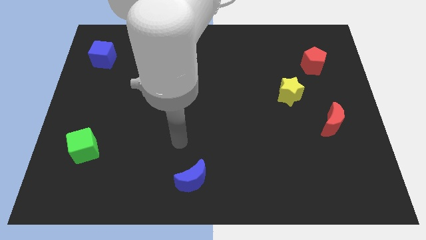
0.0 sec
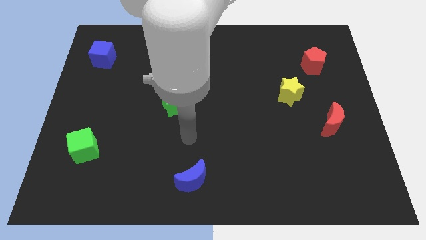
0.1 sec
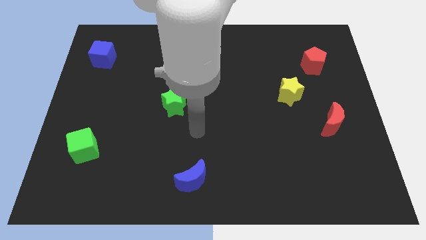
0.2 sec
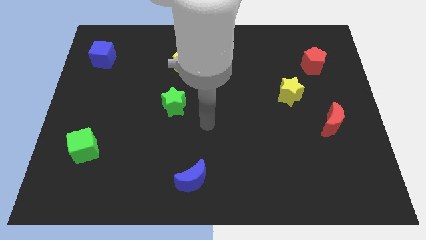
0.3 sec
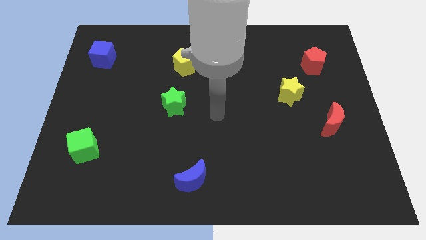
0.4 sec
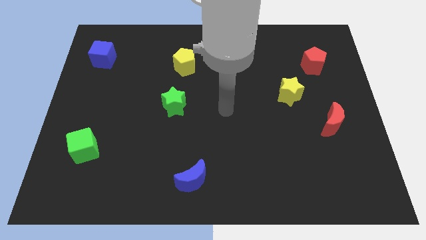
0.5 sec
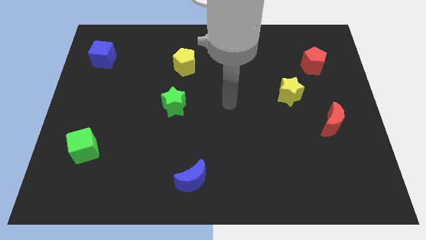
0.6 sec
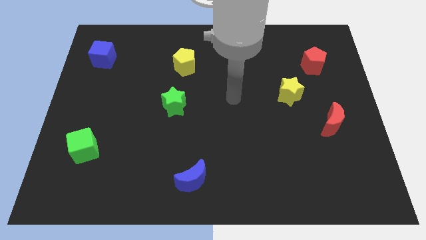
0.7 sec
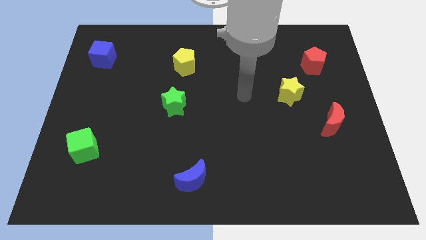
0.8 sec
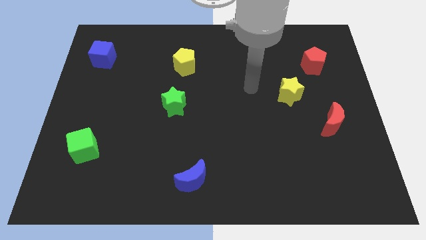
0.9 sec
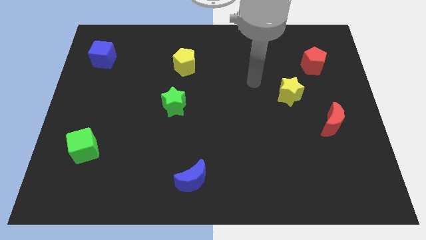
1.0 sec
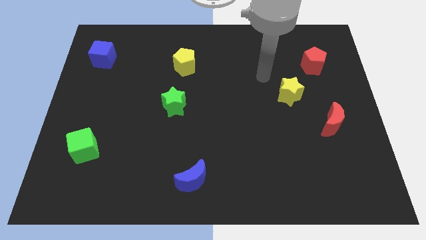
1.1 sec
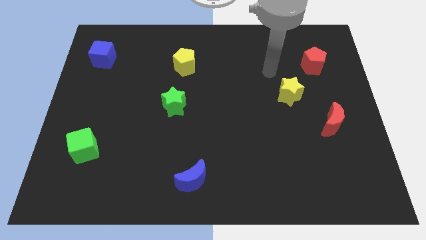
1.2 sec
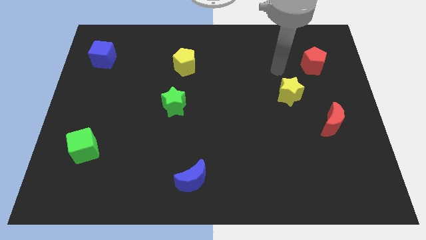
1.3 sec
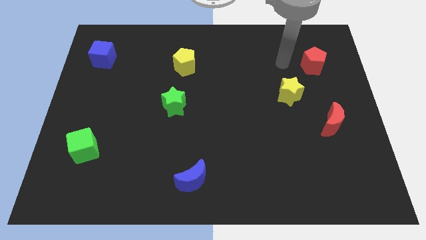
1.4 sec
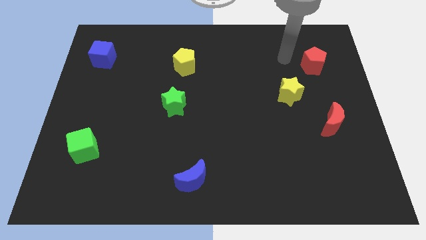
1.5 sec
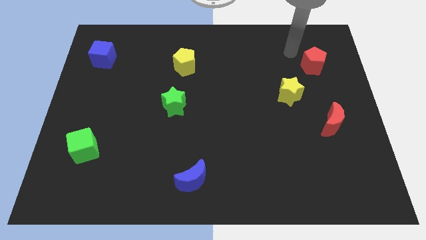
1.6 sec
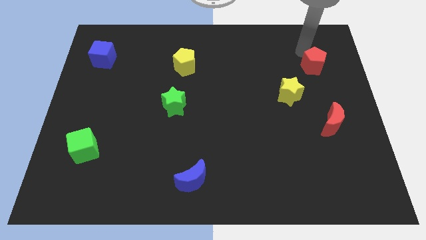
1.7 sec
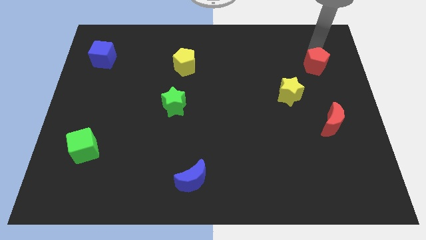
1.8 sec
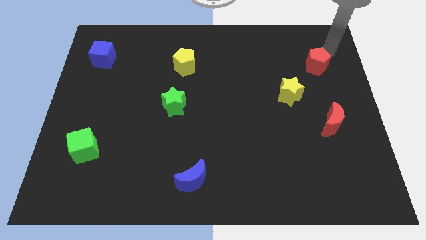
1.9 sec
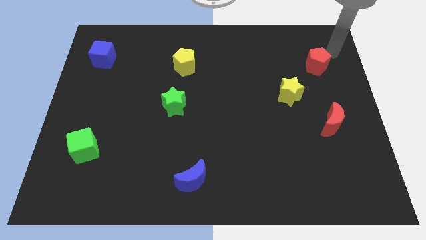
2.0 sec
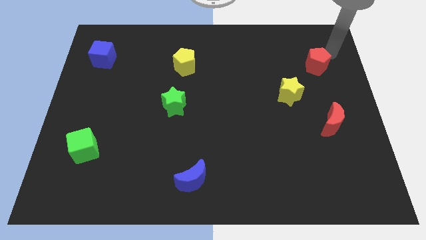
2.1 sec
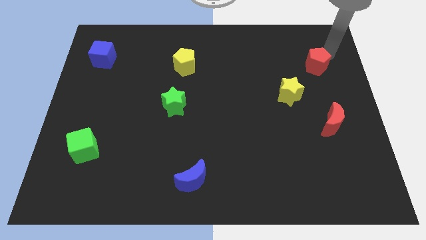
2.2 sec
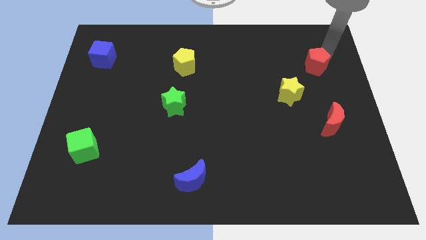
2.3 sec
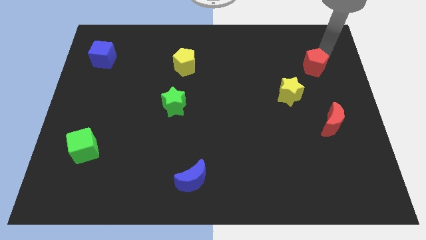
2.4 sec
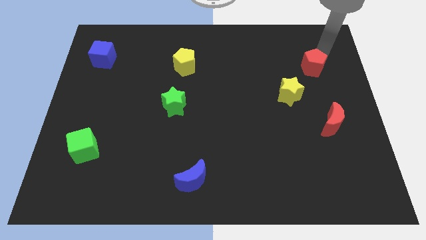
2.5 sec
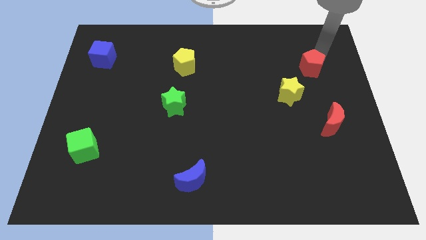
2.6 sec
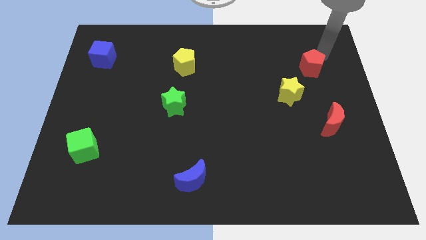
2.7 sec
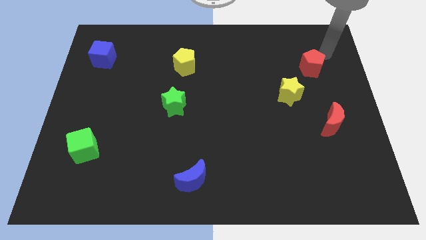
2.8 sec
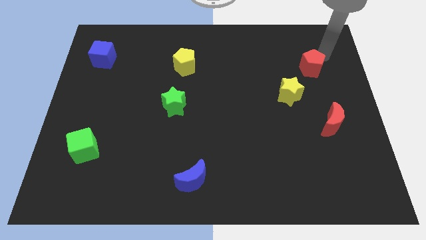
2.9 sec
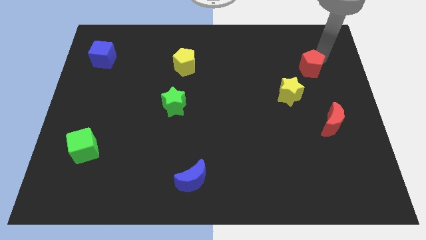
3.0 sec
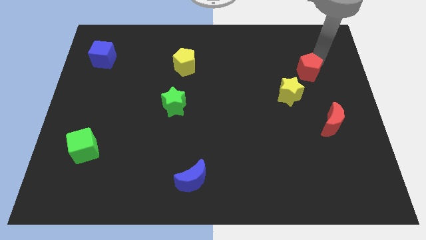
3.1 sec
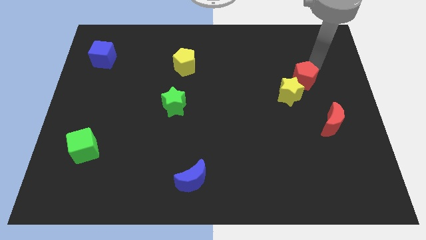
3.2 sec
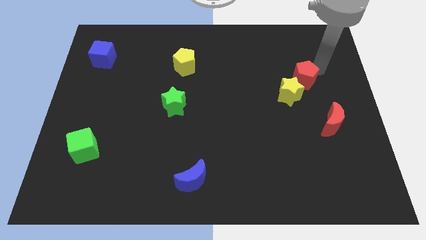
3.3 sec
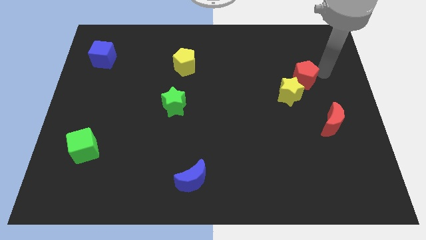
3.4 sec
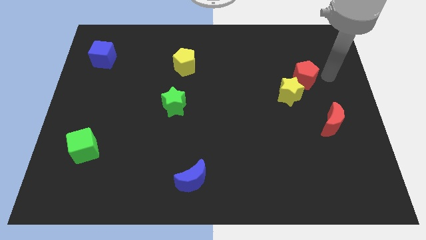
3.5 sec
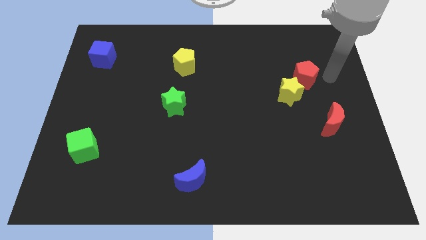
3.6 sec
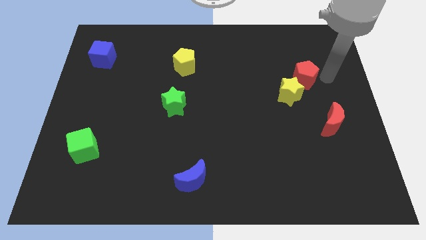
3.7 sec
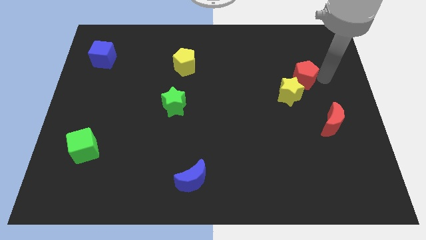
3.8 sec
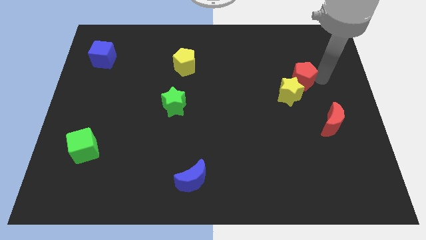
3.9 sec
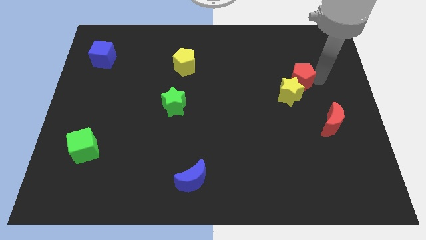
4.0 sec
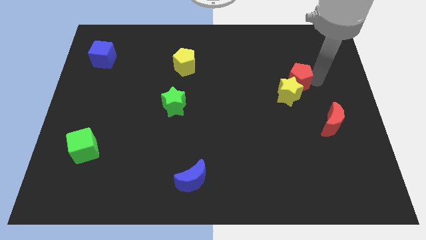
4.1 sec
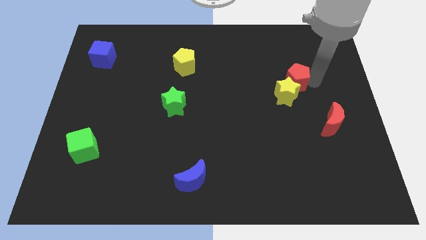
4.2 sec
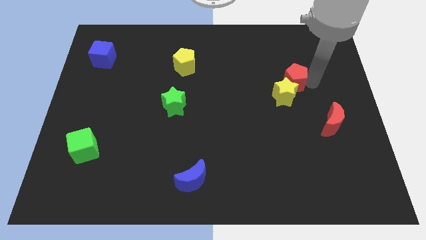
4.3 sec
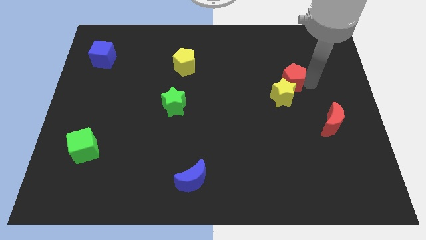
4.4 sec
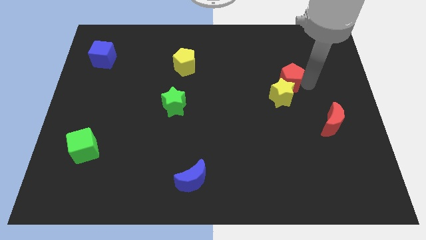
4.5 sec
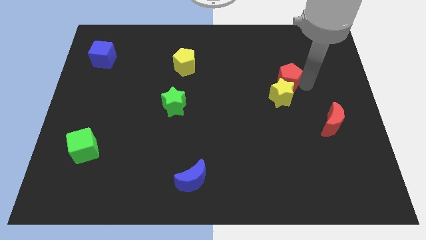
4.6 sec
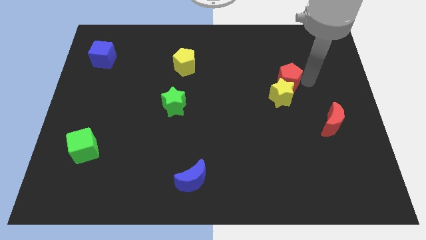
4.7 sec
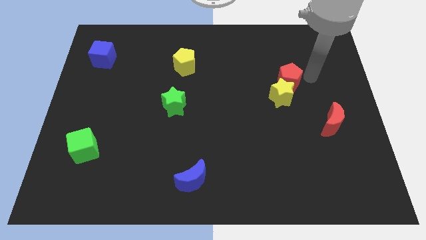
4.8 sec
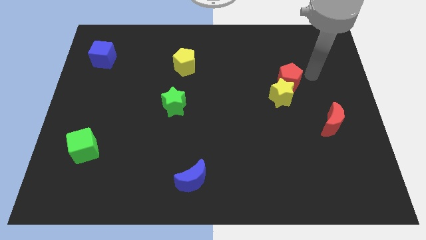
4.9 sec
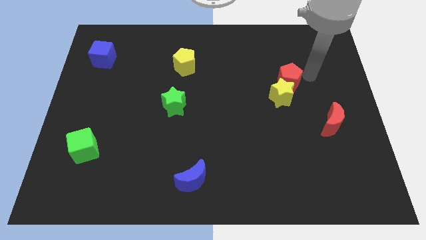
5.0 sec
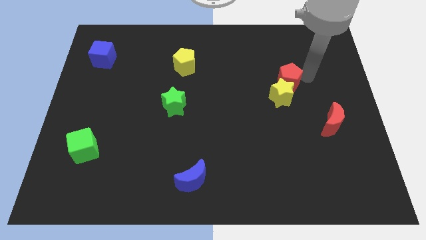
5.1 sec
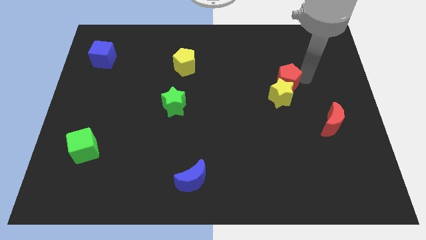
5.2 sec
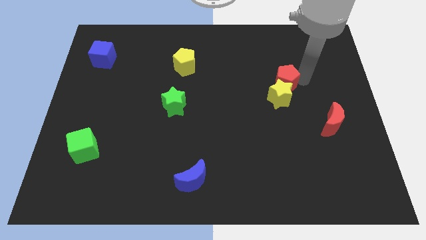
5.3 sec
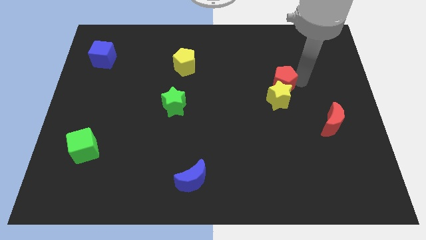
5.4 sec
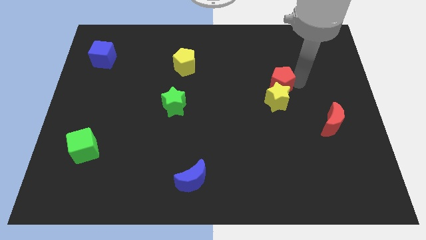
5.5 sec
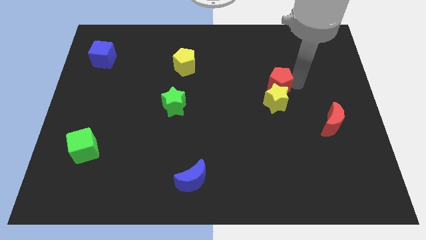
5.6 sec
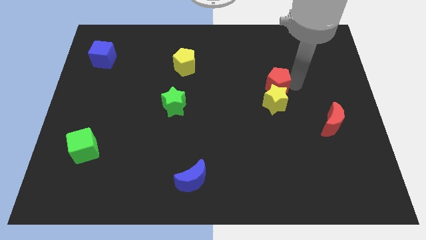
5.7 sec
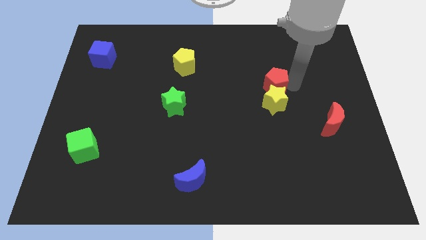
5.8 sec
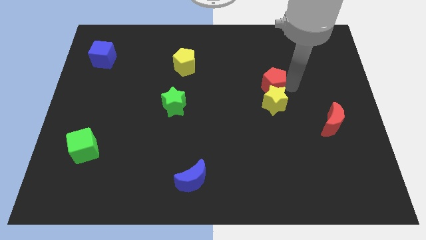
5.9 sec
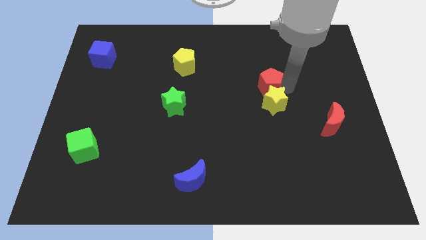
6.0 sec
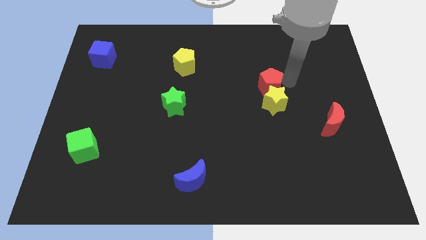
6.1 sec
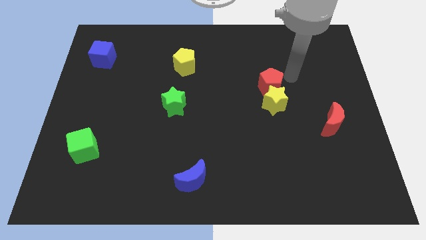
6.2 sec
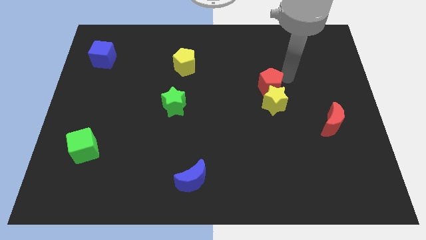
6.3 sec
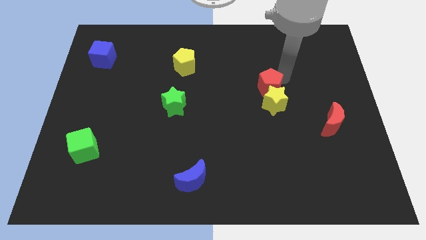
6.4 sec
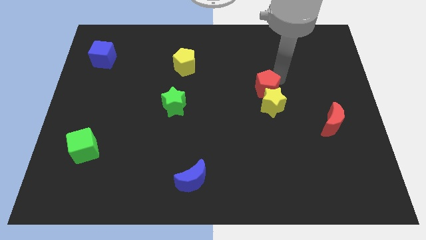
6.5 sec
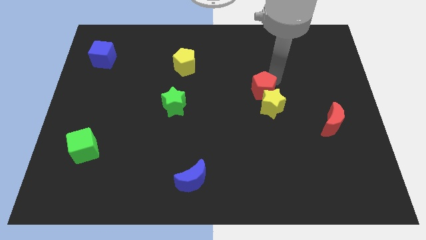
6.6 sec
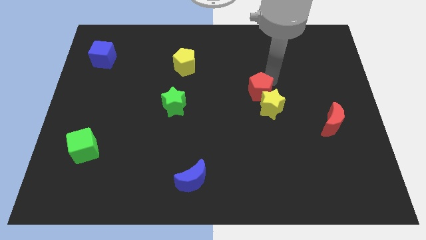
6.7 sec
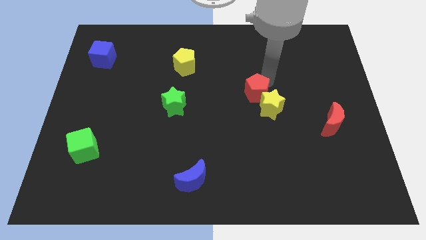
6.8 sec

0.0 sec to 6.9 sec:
put the red pentagon left of the yellow star

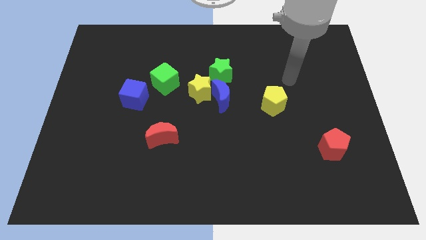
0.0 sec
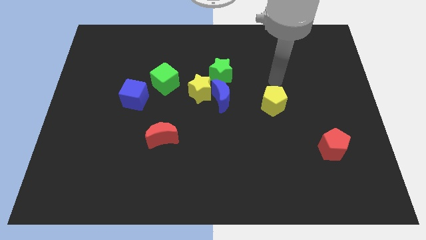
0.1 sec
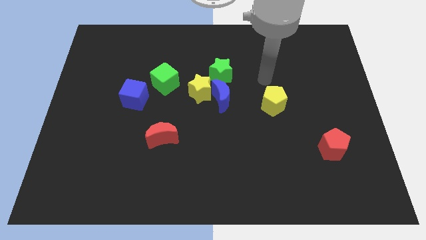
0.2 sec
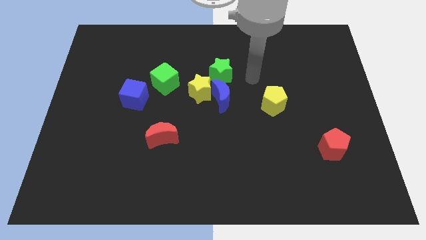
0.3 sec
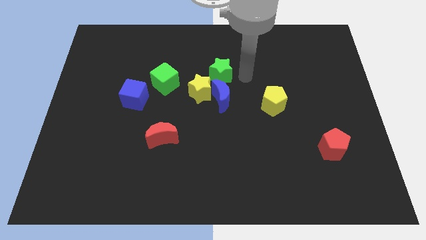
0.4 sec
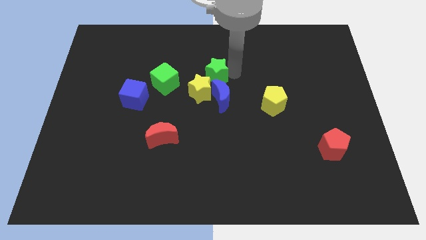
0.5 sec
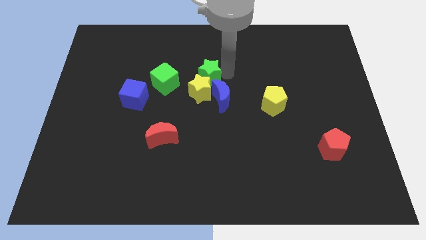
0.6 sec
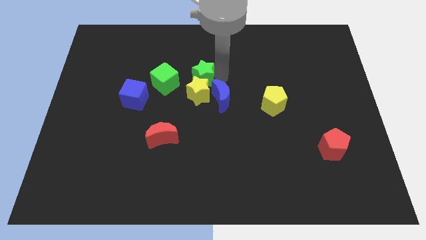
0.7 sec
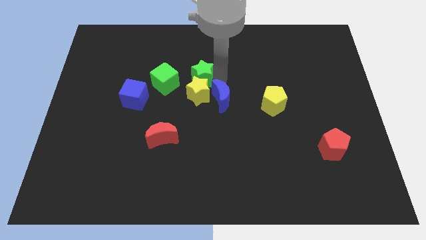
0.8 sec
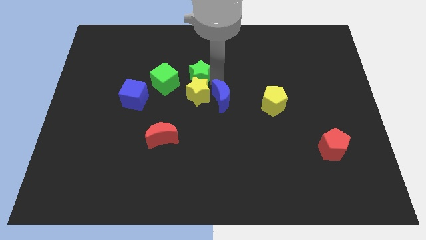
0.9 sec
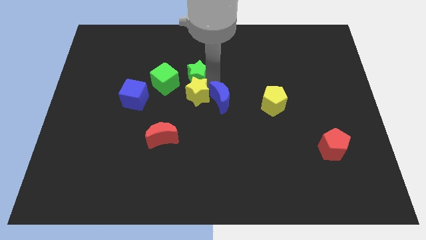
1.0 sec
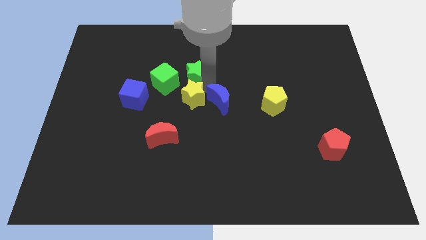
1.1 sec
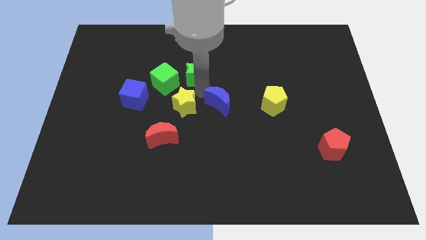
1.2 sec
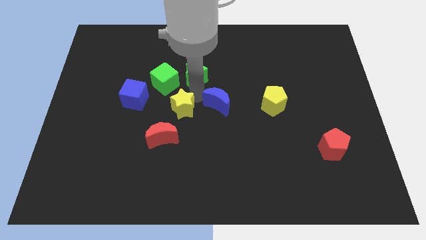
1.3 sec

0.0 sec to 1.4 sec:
slide the yellow star below the green cube
